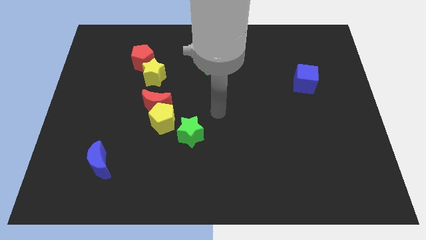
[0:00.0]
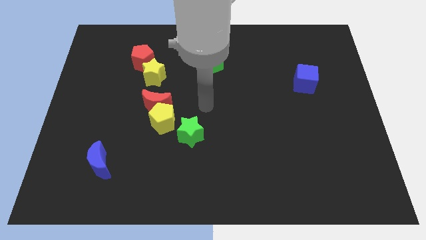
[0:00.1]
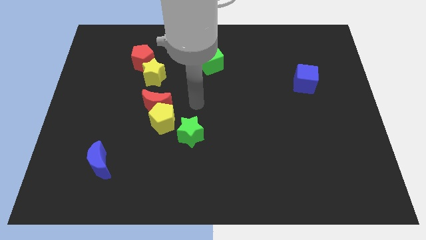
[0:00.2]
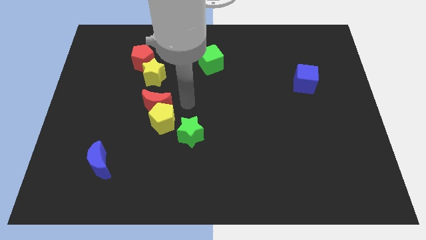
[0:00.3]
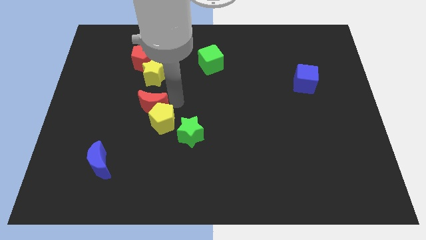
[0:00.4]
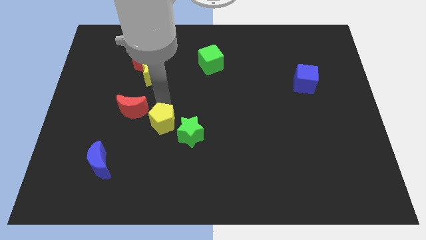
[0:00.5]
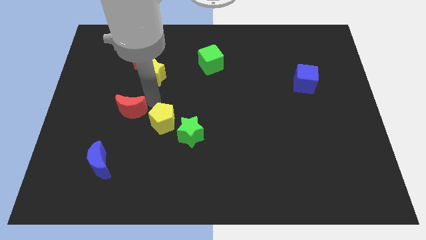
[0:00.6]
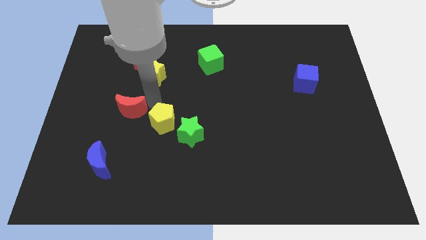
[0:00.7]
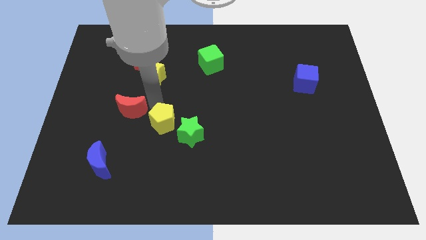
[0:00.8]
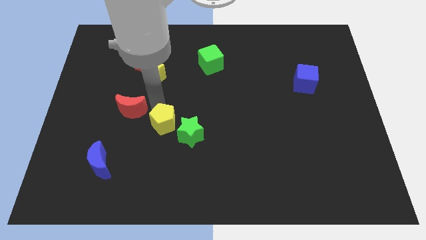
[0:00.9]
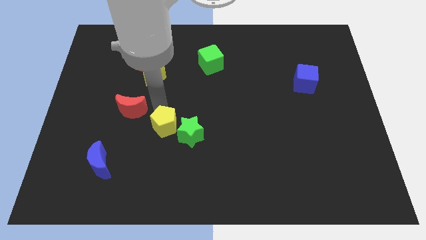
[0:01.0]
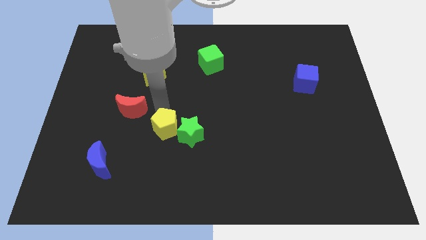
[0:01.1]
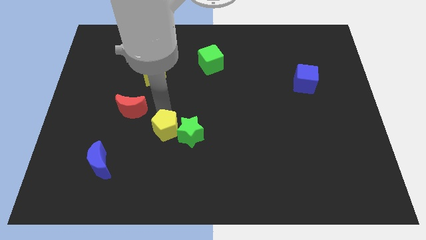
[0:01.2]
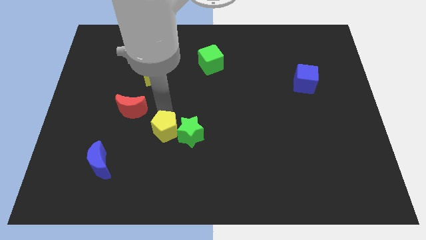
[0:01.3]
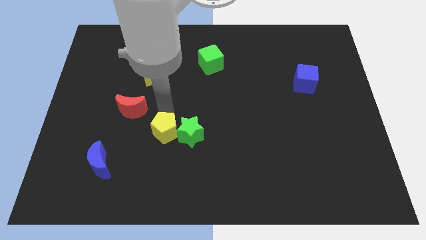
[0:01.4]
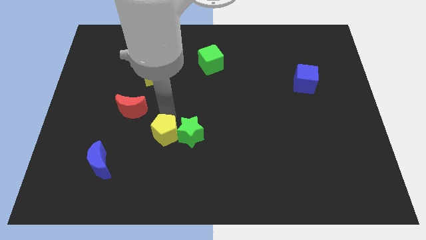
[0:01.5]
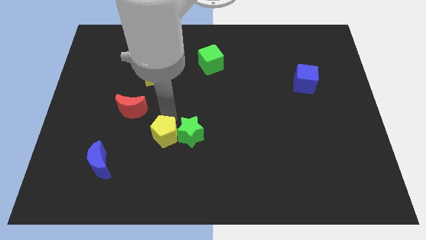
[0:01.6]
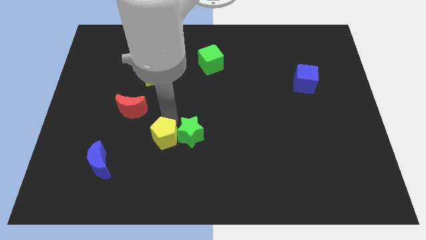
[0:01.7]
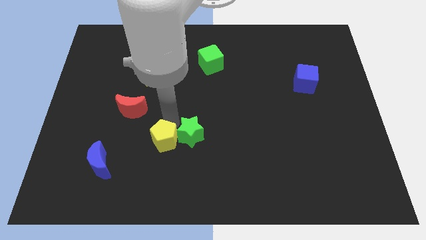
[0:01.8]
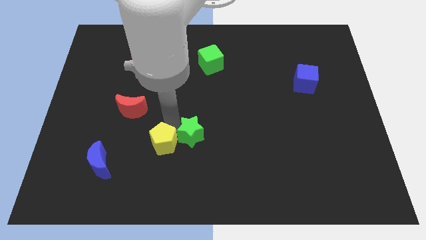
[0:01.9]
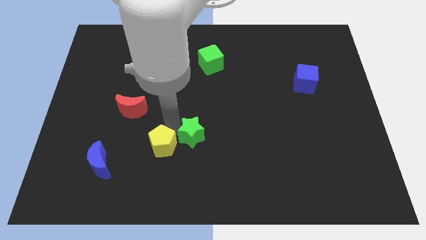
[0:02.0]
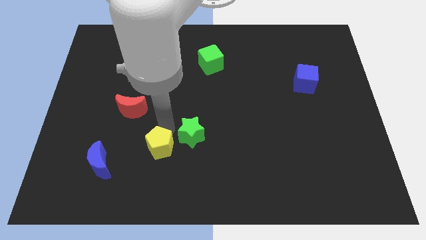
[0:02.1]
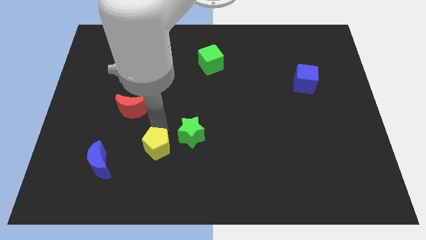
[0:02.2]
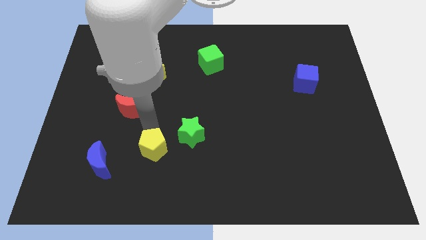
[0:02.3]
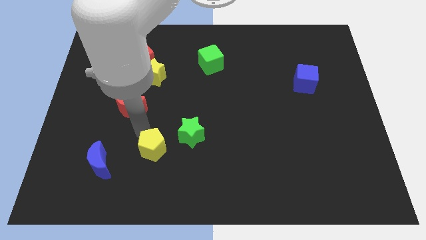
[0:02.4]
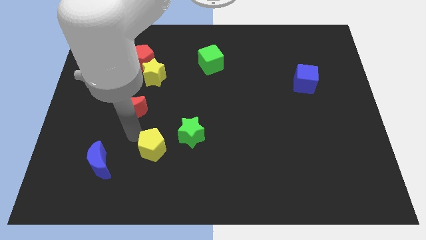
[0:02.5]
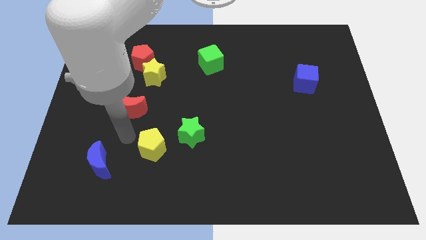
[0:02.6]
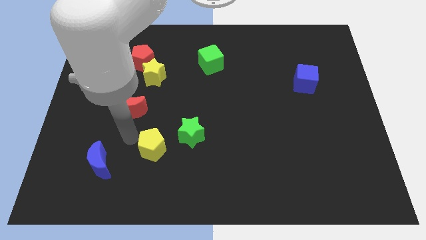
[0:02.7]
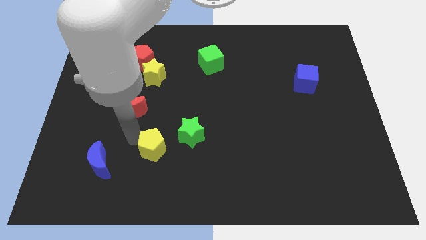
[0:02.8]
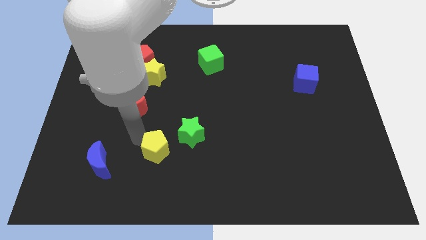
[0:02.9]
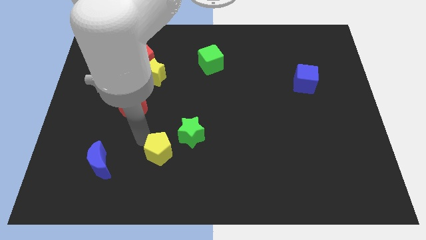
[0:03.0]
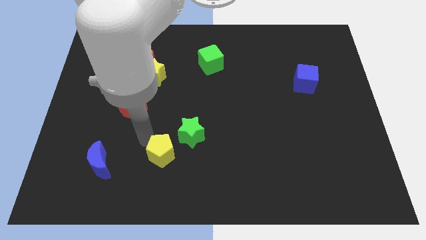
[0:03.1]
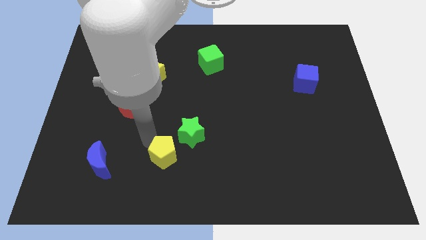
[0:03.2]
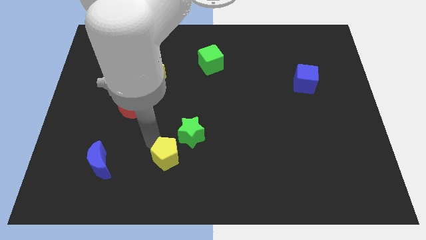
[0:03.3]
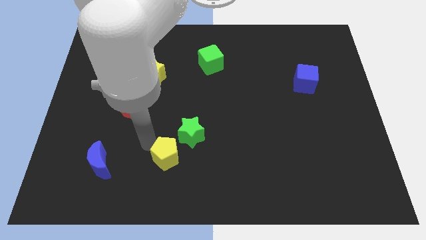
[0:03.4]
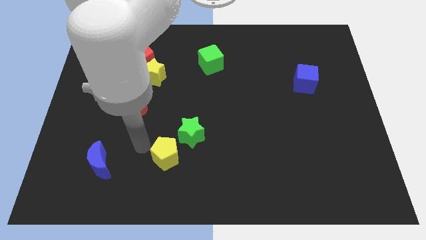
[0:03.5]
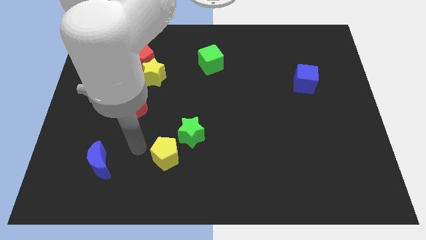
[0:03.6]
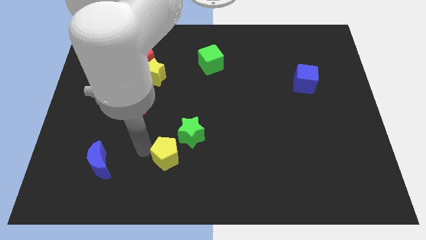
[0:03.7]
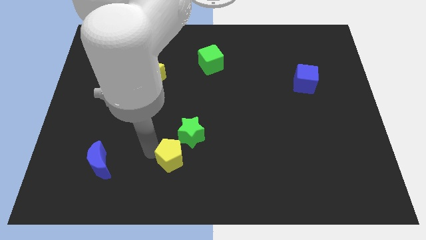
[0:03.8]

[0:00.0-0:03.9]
move the yellow pentagon somewhat downwards and then to the right

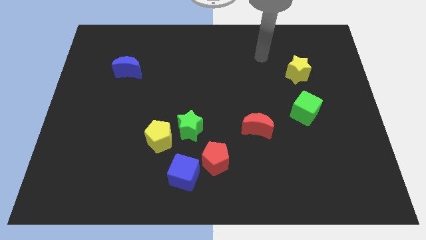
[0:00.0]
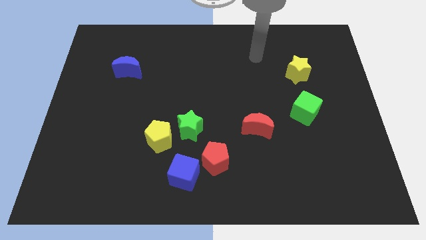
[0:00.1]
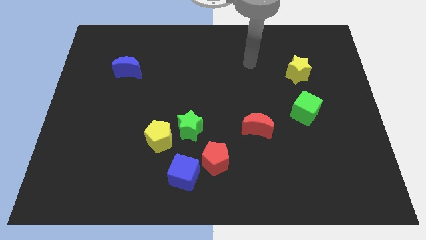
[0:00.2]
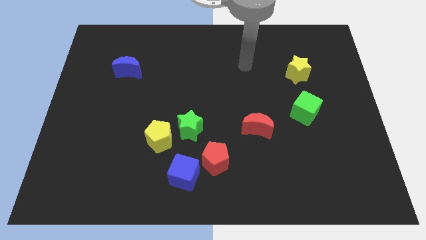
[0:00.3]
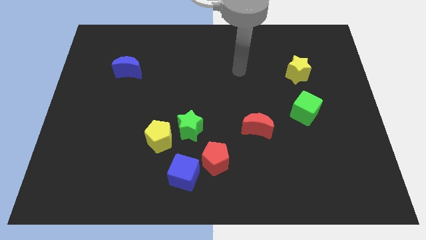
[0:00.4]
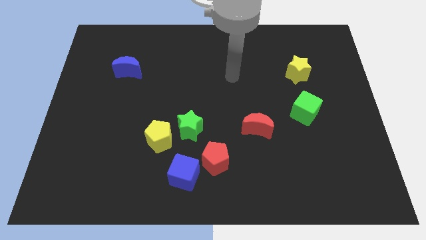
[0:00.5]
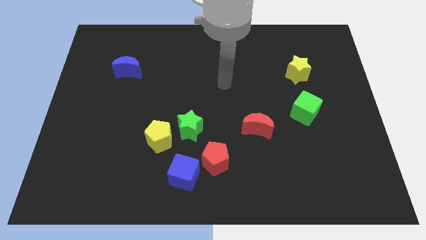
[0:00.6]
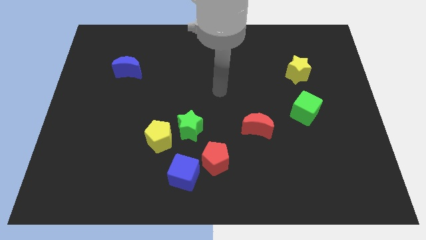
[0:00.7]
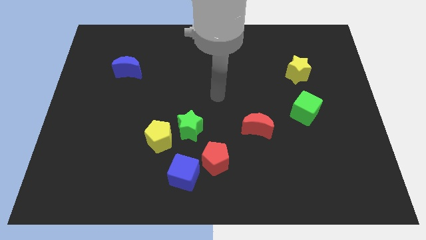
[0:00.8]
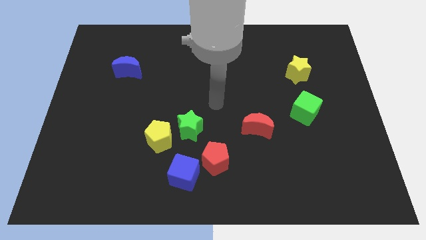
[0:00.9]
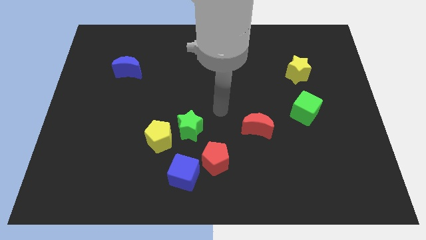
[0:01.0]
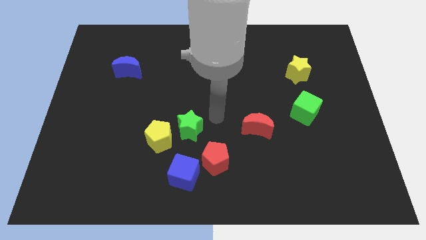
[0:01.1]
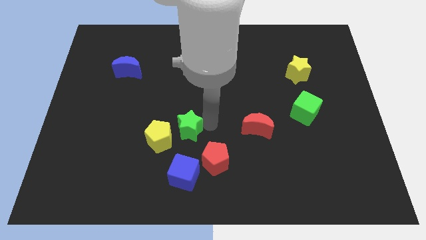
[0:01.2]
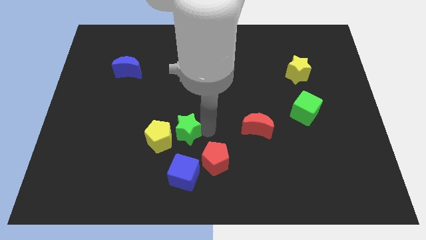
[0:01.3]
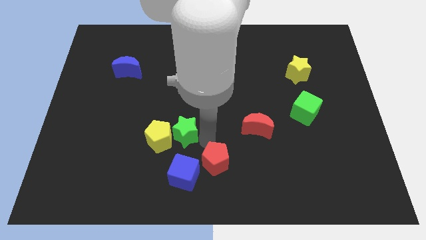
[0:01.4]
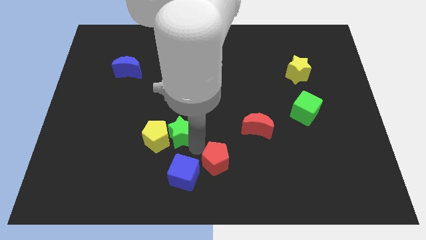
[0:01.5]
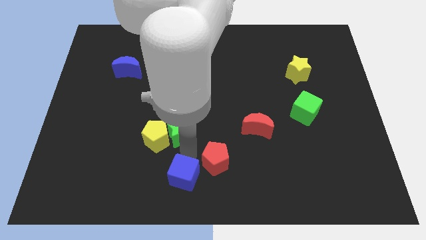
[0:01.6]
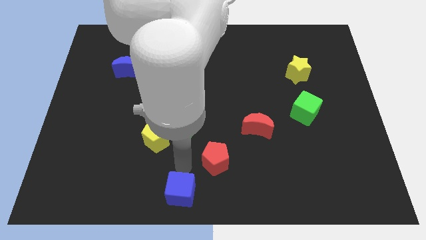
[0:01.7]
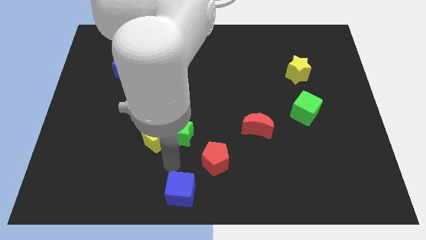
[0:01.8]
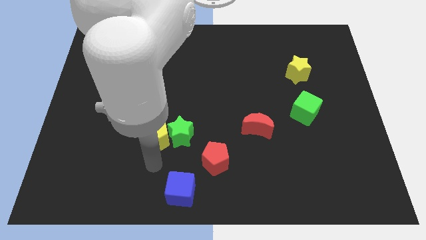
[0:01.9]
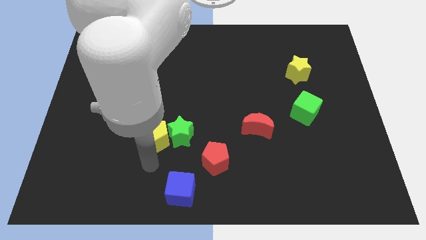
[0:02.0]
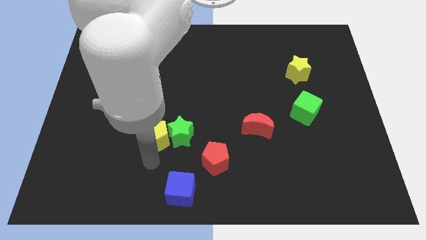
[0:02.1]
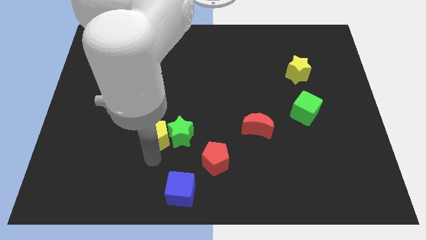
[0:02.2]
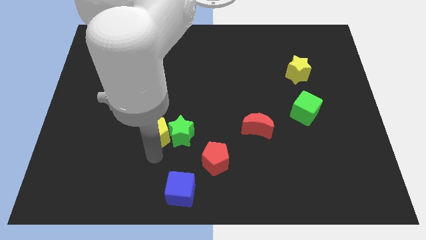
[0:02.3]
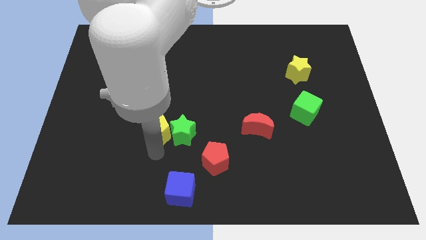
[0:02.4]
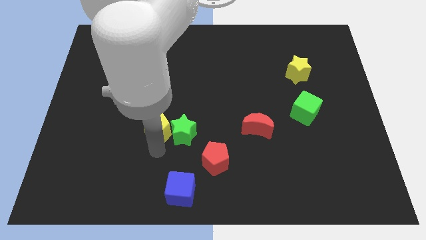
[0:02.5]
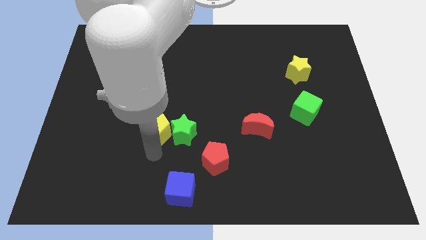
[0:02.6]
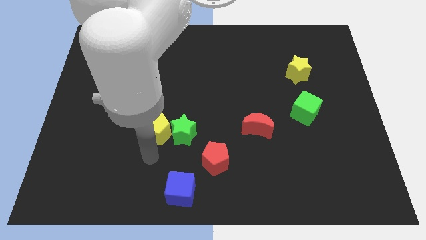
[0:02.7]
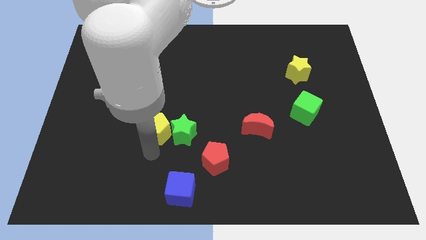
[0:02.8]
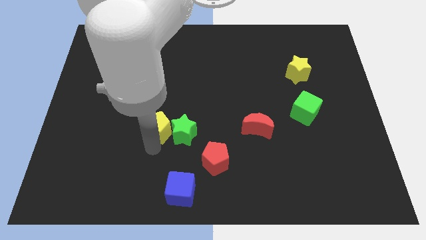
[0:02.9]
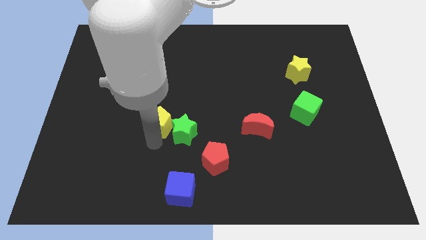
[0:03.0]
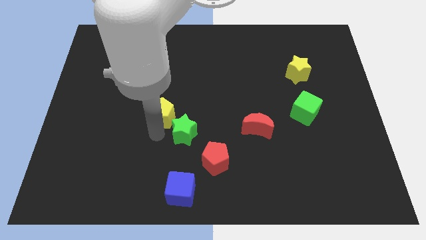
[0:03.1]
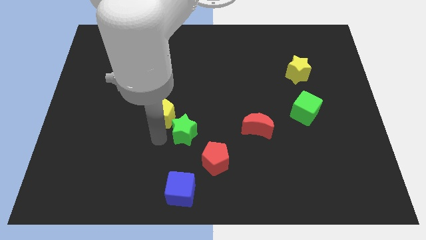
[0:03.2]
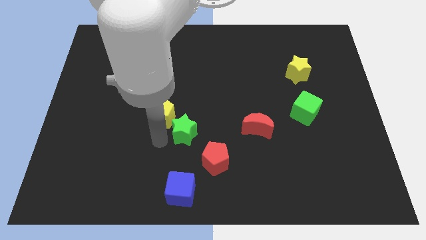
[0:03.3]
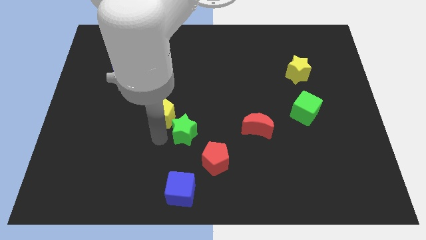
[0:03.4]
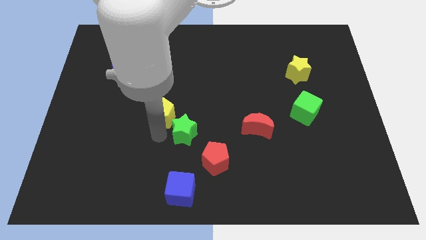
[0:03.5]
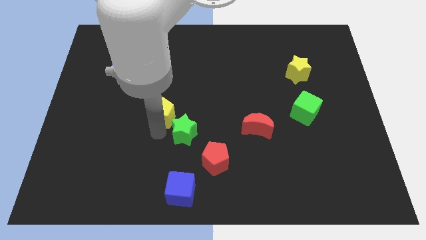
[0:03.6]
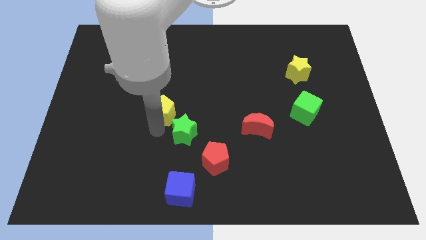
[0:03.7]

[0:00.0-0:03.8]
push the yellow pentagon upwards slightly

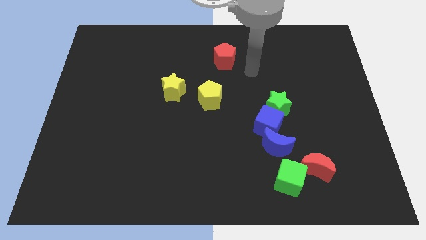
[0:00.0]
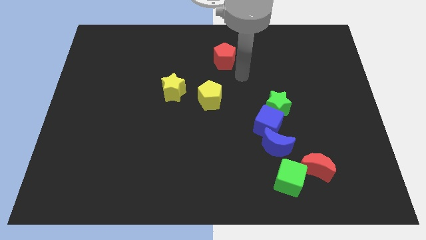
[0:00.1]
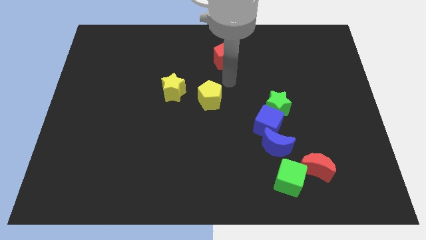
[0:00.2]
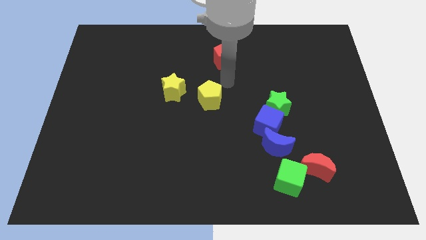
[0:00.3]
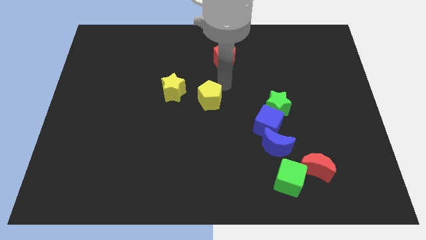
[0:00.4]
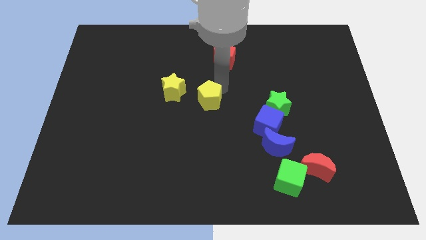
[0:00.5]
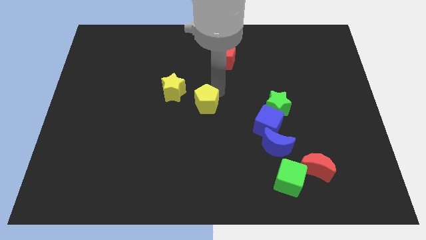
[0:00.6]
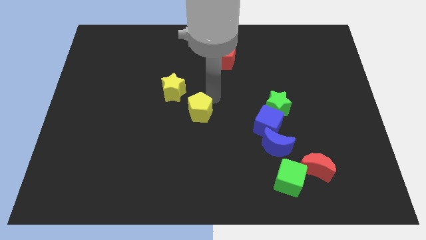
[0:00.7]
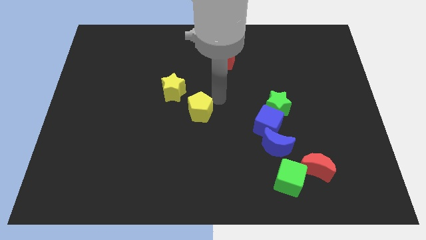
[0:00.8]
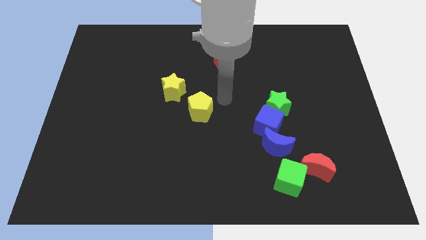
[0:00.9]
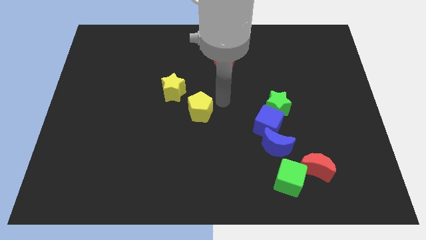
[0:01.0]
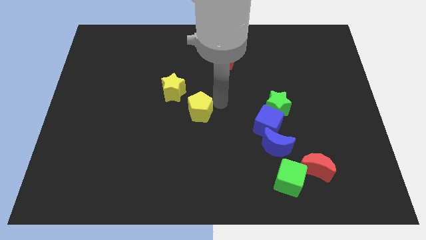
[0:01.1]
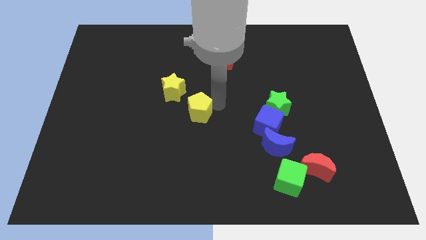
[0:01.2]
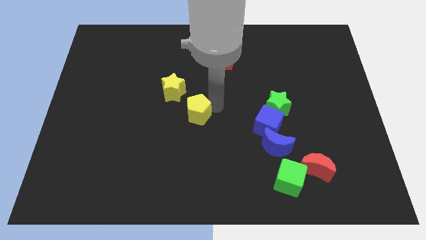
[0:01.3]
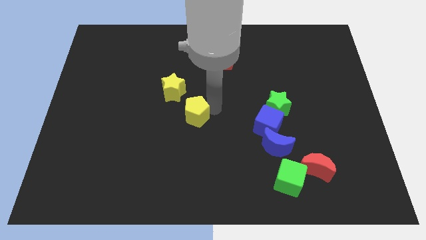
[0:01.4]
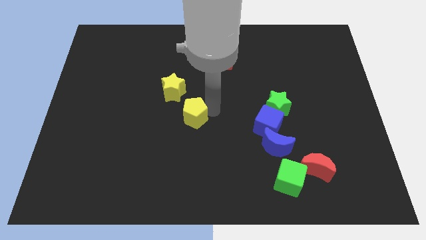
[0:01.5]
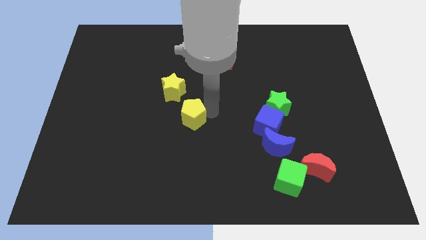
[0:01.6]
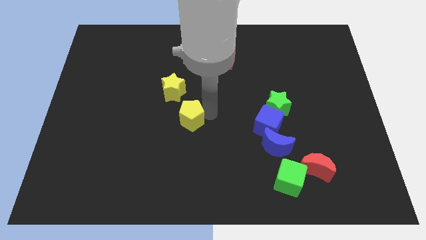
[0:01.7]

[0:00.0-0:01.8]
slightly push the yellow pentagon down and to the left
